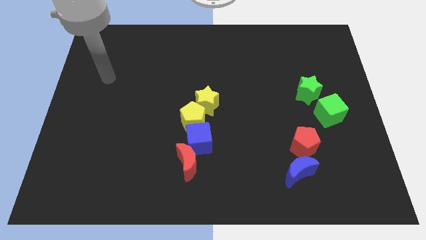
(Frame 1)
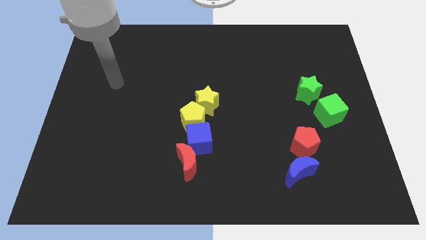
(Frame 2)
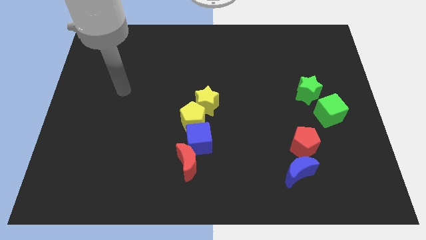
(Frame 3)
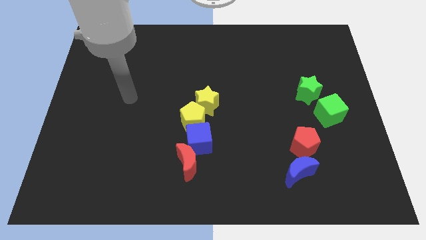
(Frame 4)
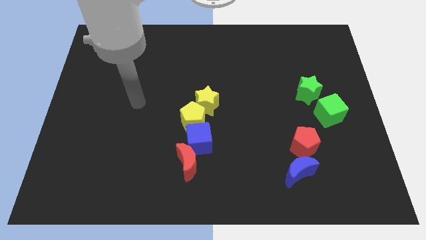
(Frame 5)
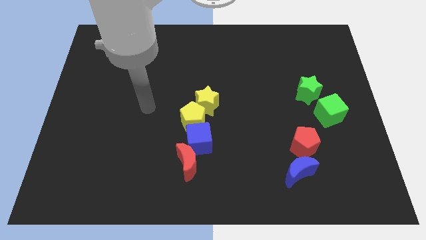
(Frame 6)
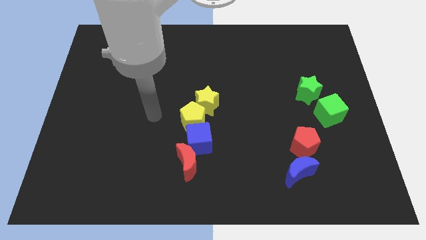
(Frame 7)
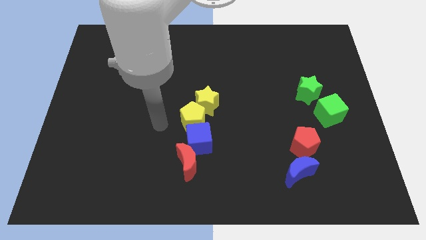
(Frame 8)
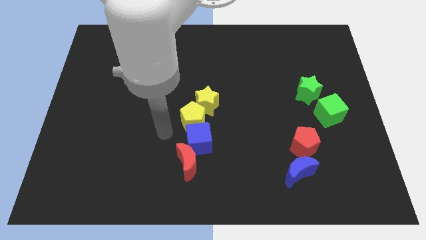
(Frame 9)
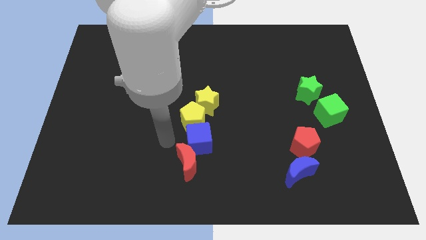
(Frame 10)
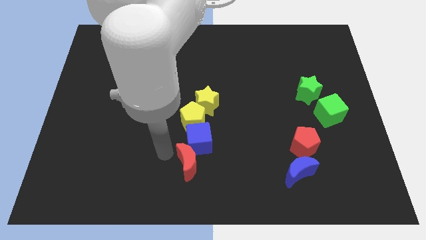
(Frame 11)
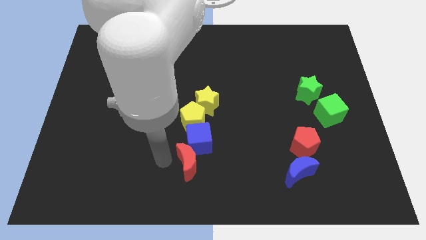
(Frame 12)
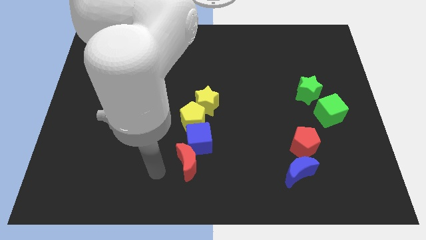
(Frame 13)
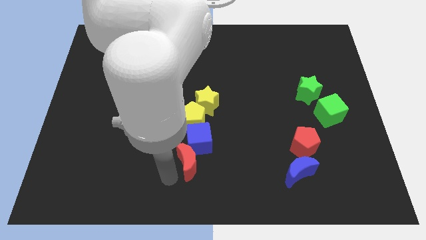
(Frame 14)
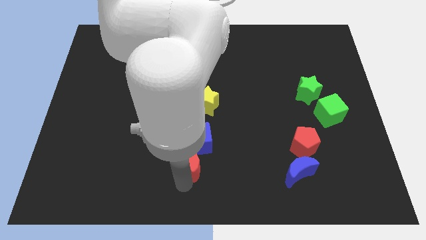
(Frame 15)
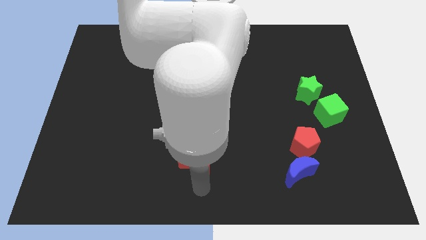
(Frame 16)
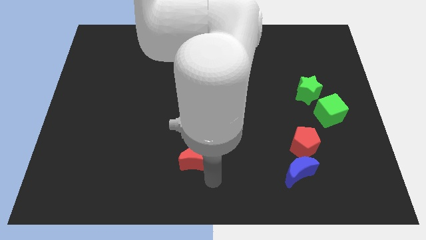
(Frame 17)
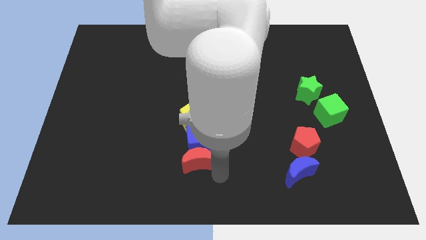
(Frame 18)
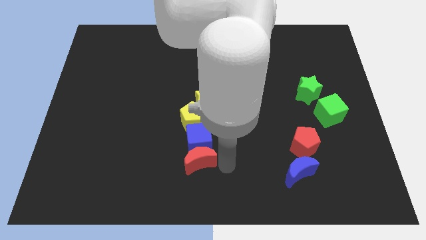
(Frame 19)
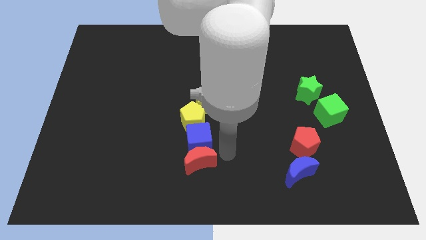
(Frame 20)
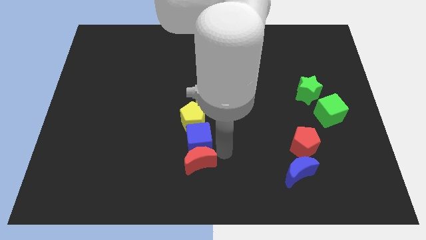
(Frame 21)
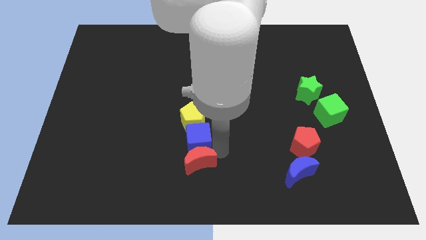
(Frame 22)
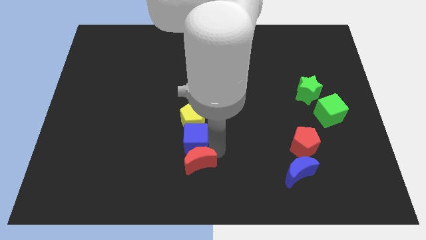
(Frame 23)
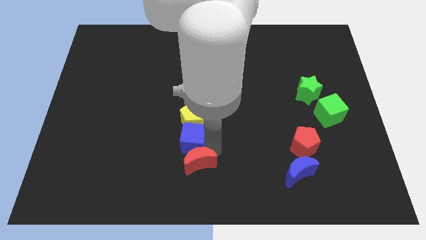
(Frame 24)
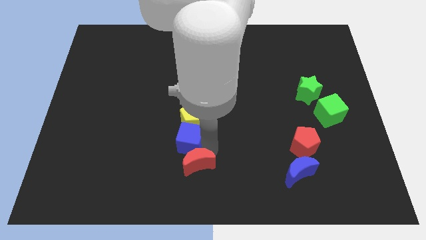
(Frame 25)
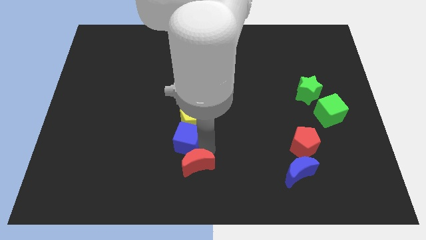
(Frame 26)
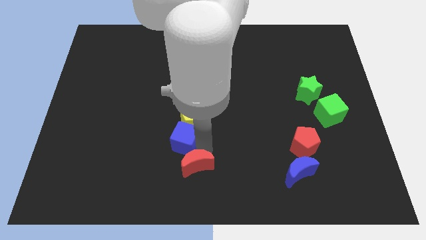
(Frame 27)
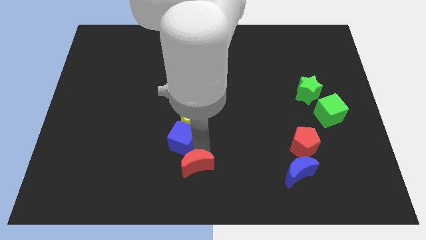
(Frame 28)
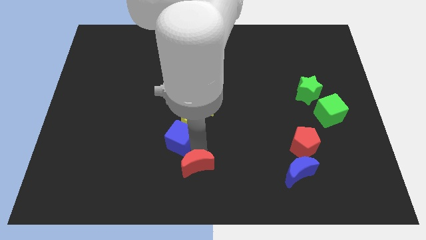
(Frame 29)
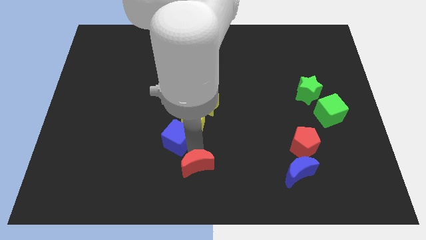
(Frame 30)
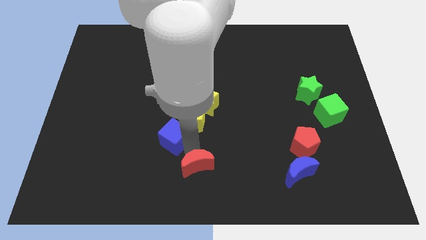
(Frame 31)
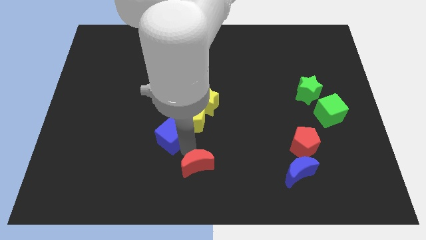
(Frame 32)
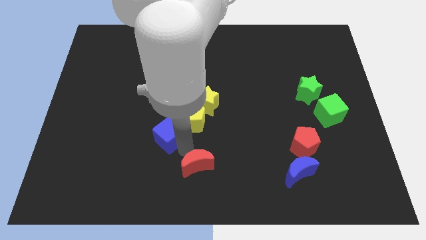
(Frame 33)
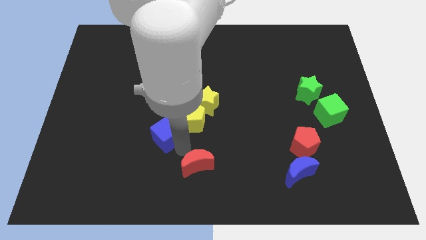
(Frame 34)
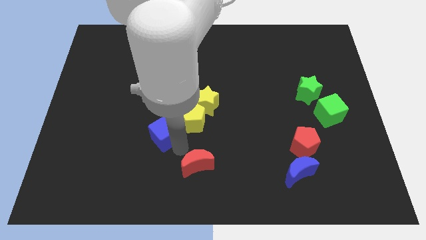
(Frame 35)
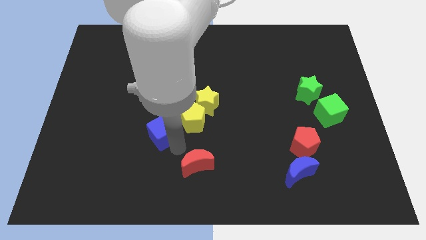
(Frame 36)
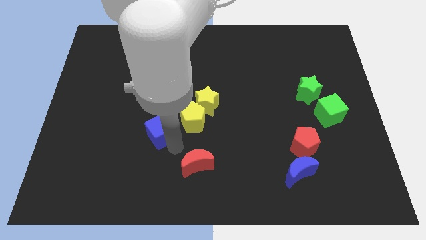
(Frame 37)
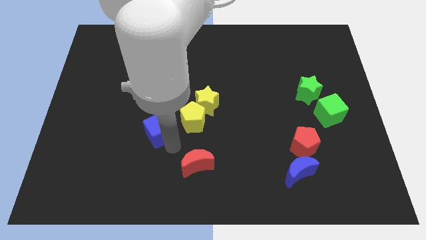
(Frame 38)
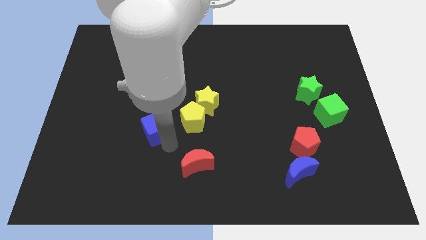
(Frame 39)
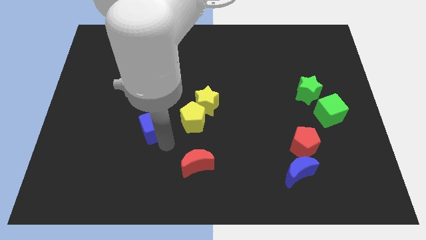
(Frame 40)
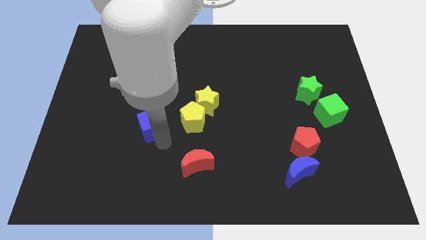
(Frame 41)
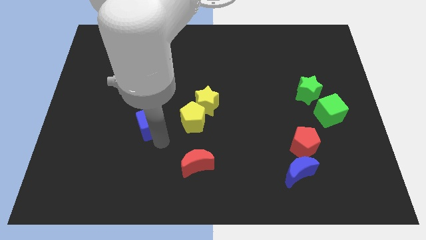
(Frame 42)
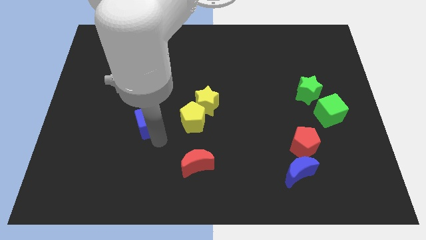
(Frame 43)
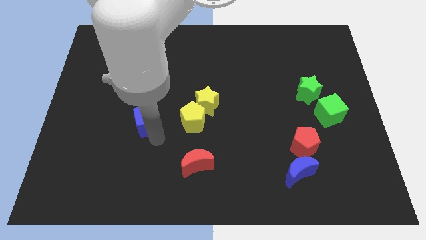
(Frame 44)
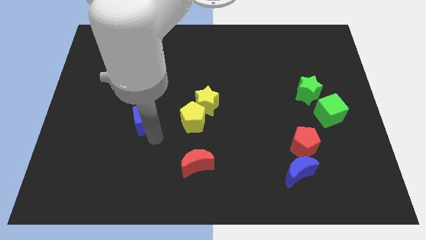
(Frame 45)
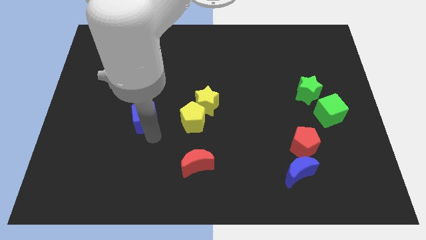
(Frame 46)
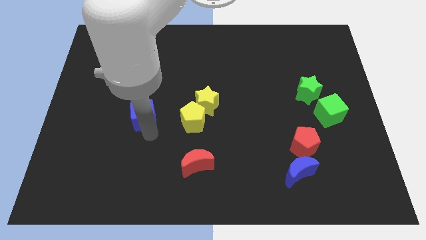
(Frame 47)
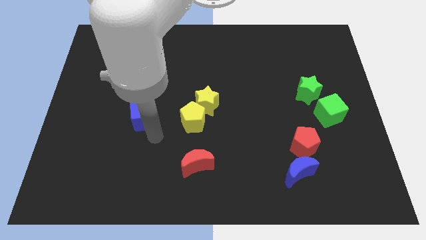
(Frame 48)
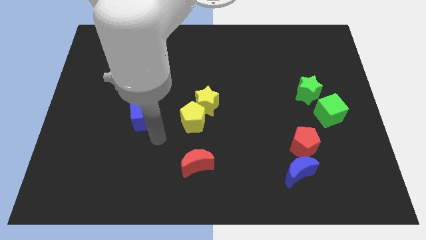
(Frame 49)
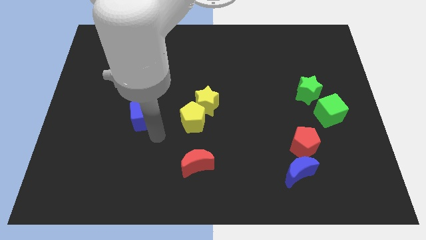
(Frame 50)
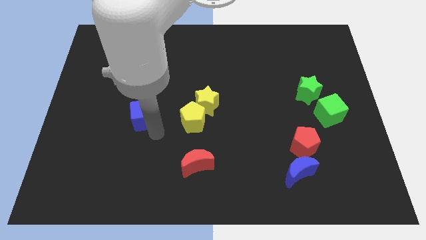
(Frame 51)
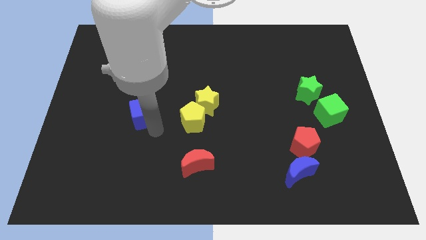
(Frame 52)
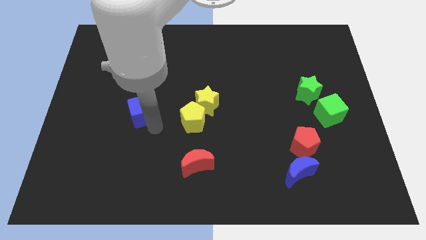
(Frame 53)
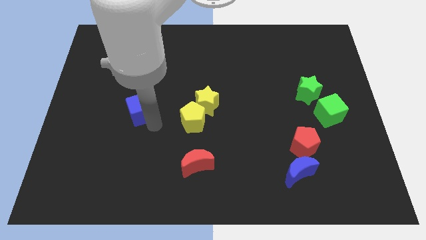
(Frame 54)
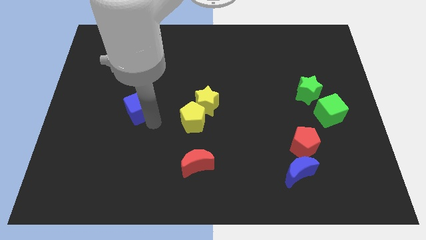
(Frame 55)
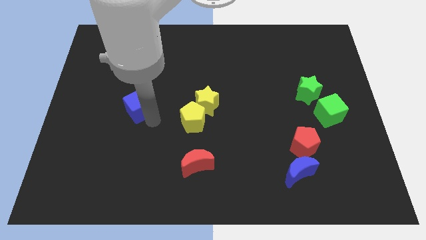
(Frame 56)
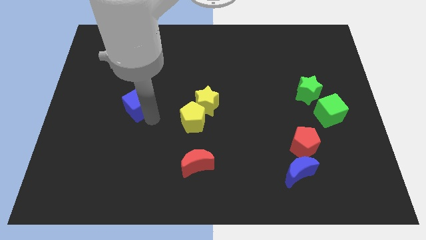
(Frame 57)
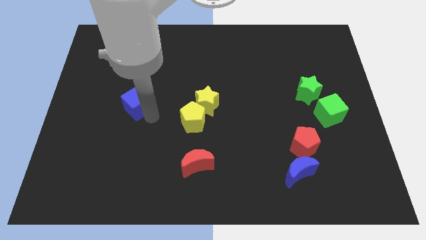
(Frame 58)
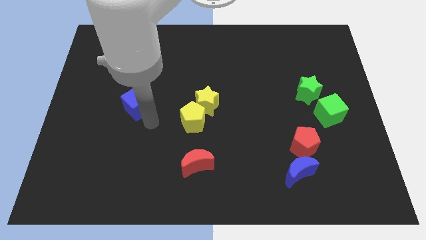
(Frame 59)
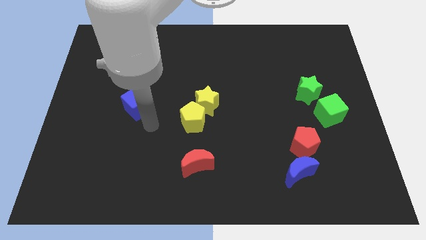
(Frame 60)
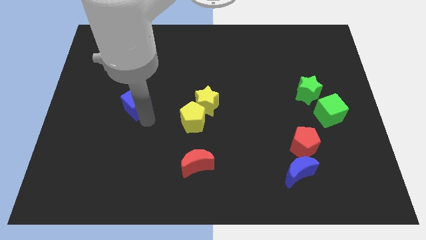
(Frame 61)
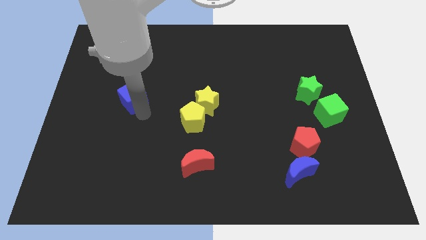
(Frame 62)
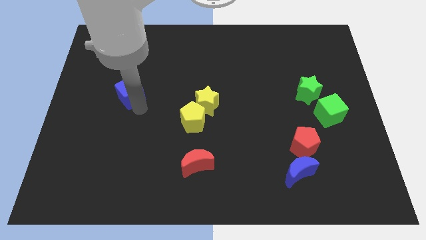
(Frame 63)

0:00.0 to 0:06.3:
push the blue cube upwards and left diagonally
